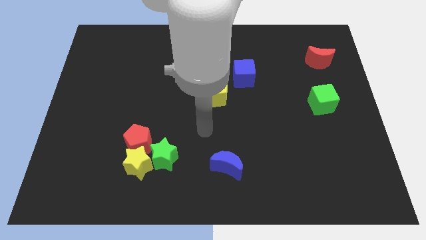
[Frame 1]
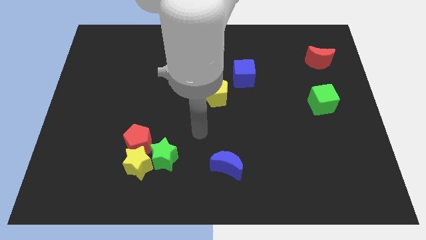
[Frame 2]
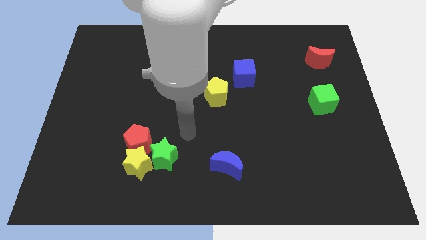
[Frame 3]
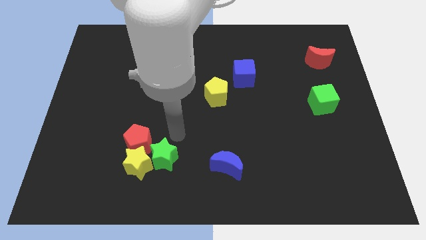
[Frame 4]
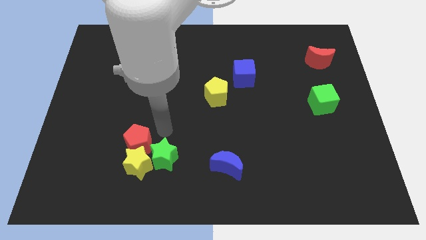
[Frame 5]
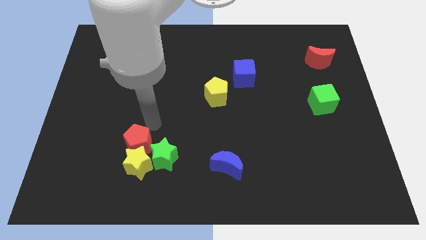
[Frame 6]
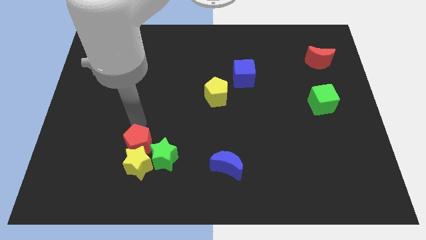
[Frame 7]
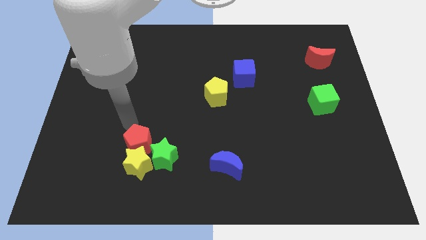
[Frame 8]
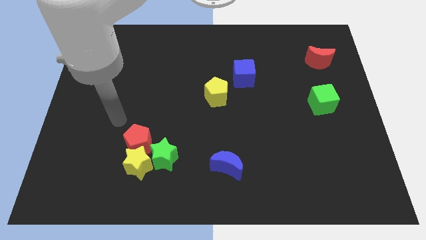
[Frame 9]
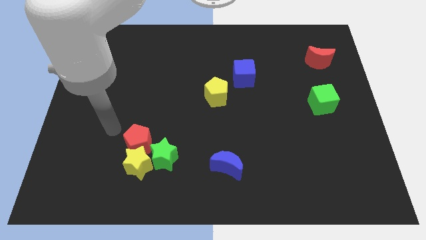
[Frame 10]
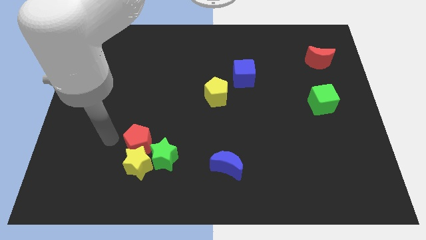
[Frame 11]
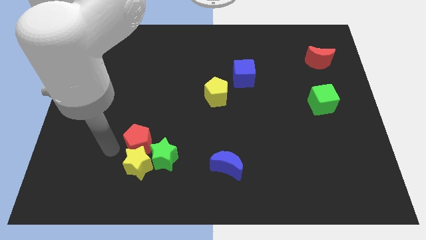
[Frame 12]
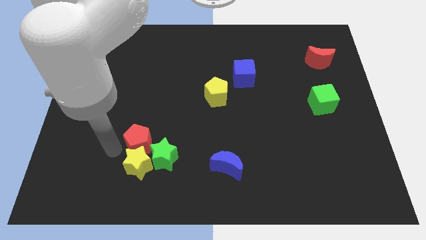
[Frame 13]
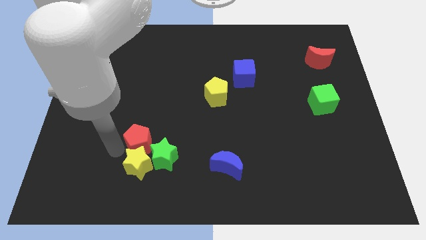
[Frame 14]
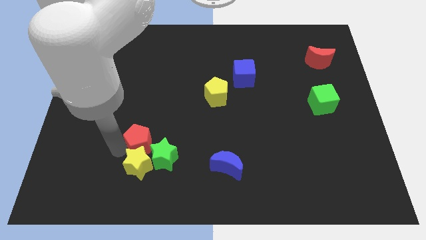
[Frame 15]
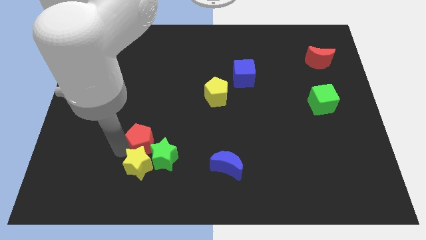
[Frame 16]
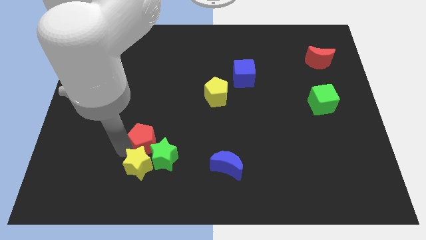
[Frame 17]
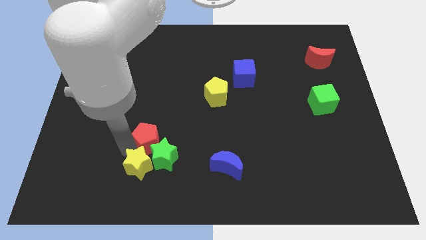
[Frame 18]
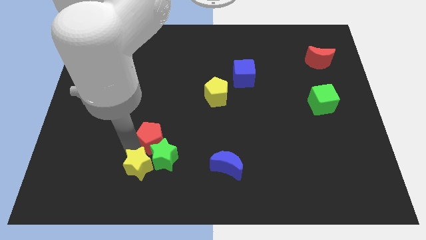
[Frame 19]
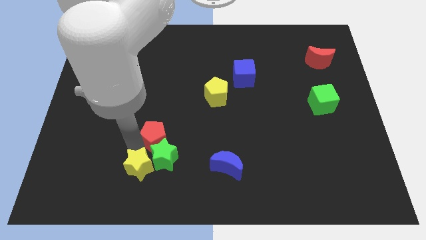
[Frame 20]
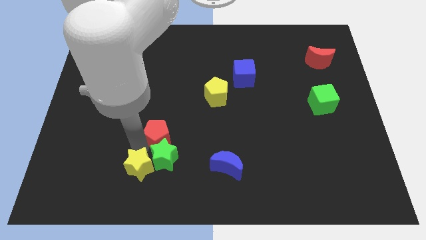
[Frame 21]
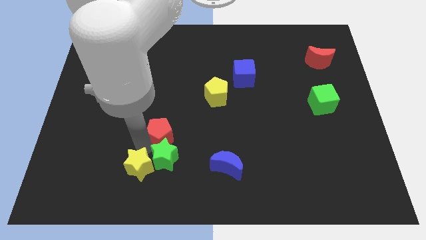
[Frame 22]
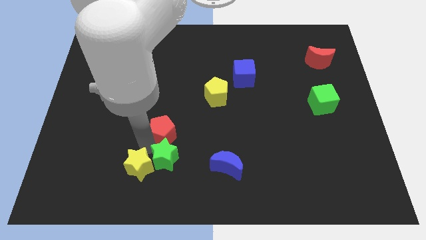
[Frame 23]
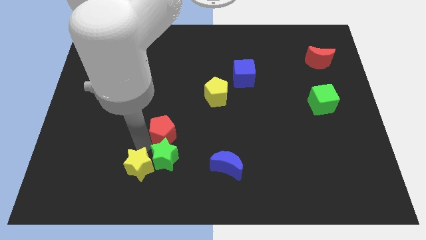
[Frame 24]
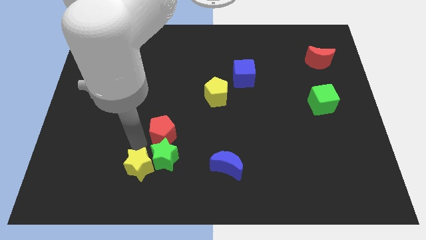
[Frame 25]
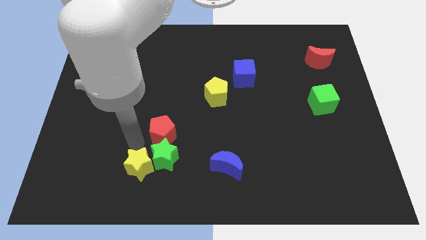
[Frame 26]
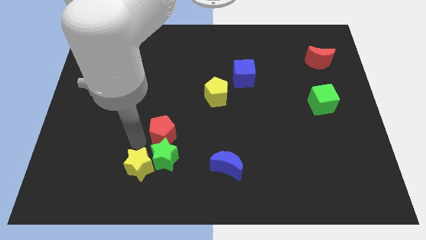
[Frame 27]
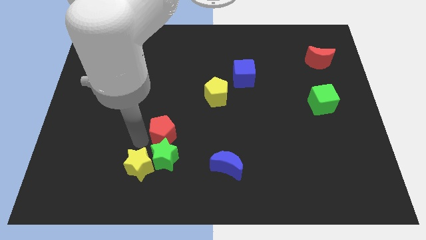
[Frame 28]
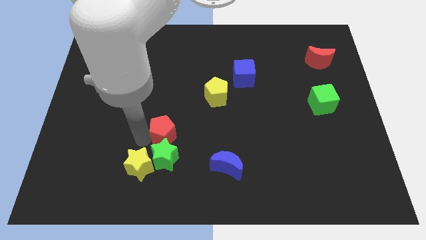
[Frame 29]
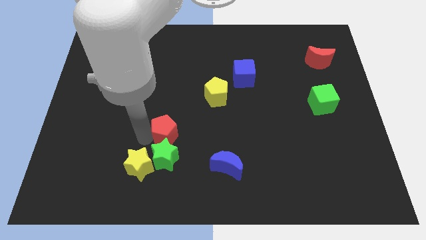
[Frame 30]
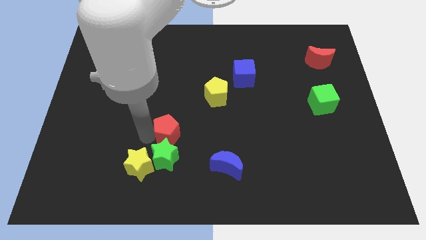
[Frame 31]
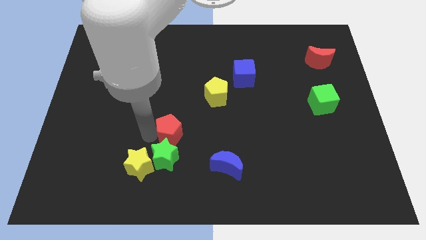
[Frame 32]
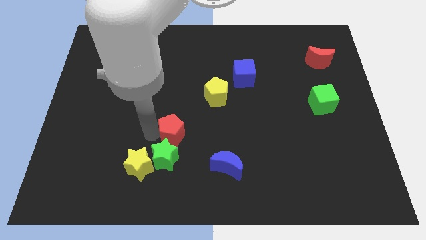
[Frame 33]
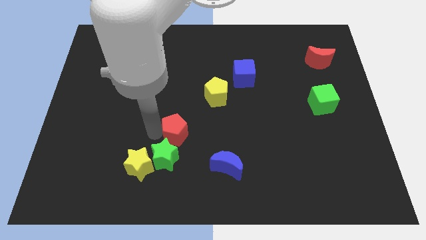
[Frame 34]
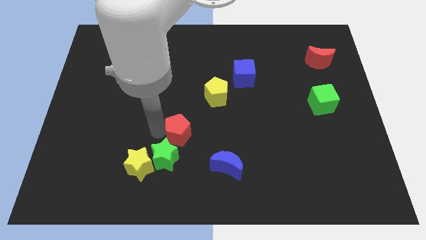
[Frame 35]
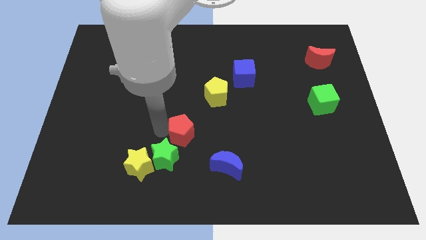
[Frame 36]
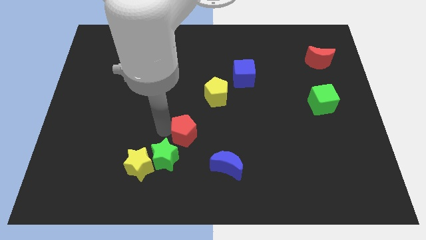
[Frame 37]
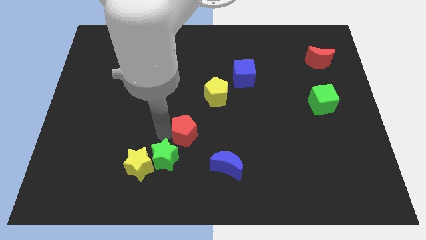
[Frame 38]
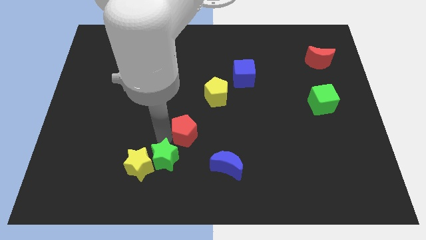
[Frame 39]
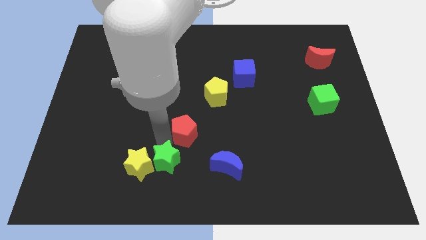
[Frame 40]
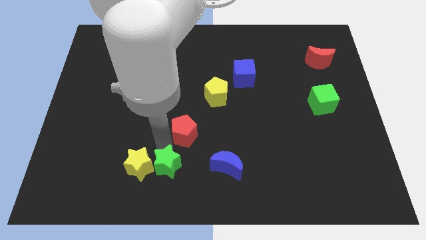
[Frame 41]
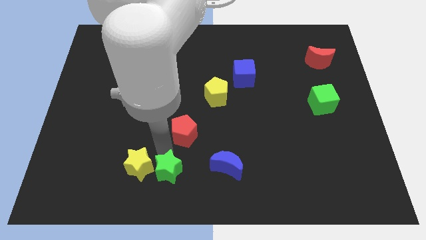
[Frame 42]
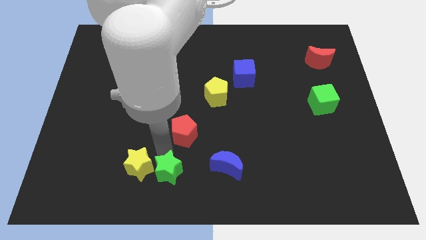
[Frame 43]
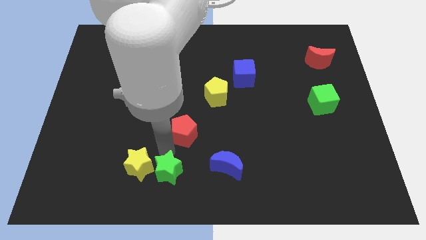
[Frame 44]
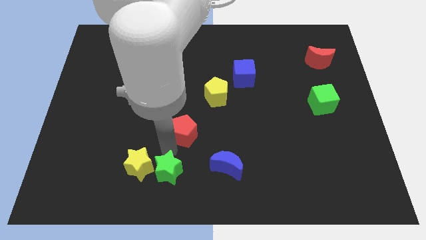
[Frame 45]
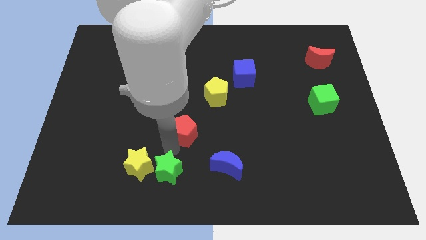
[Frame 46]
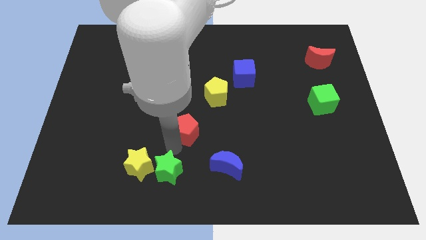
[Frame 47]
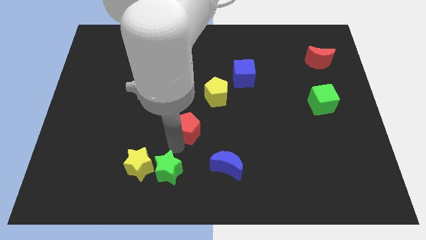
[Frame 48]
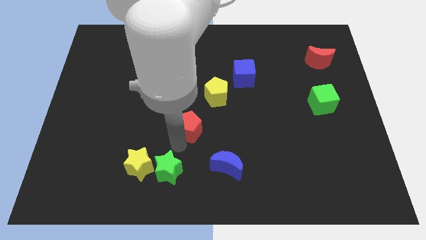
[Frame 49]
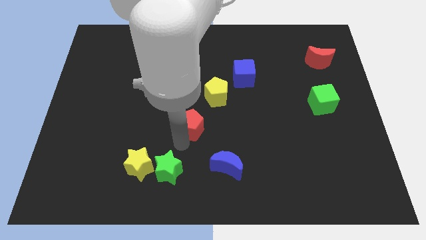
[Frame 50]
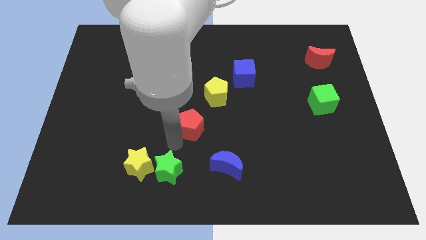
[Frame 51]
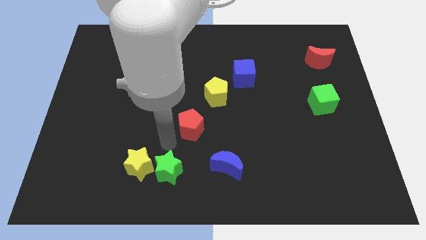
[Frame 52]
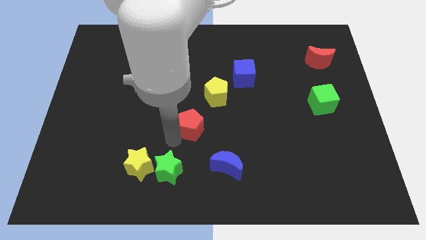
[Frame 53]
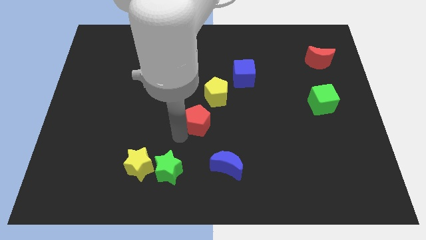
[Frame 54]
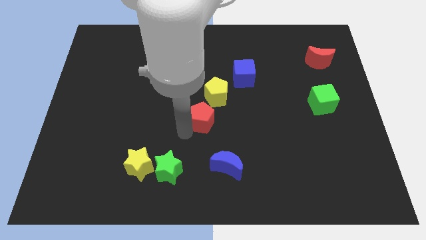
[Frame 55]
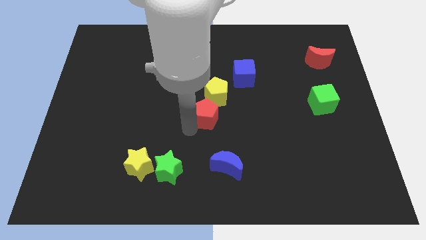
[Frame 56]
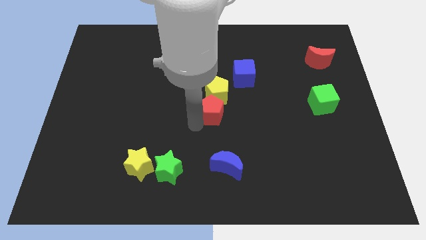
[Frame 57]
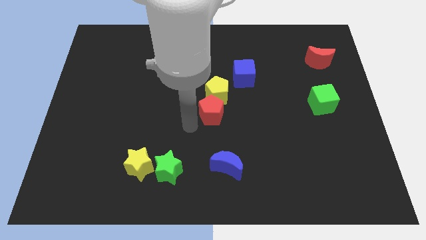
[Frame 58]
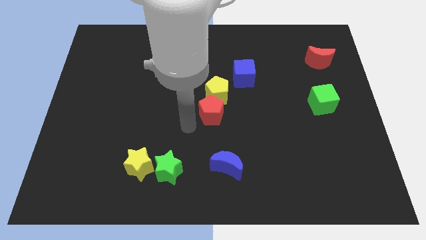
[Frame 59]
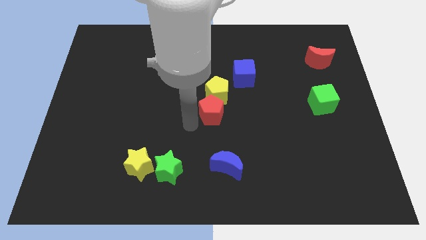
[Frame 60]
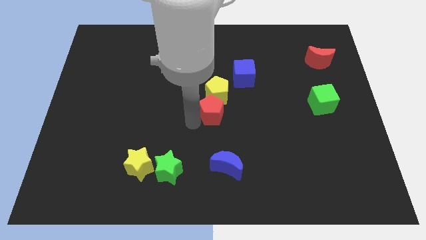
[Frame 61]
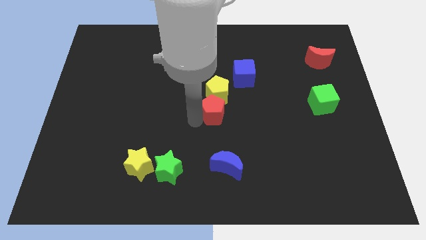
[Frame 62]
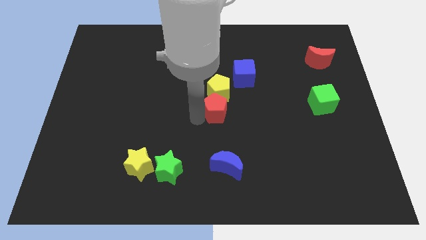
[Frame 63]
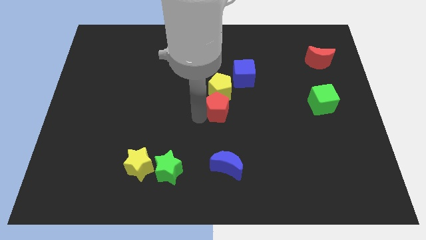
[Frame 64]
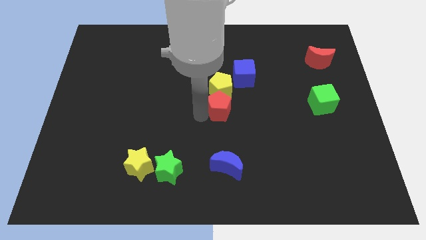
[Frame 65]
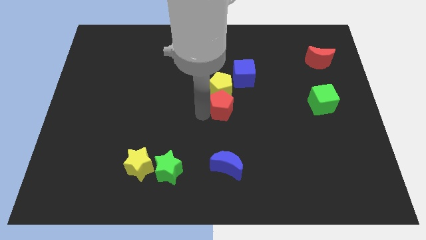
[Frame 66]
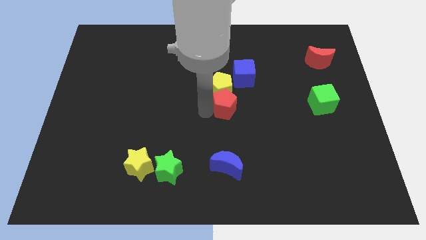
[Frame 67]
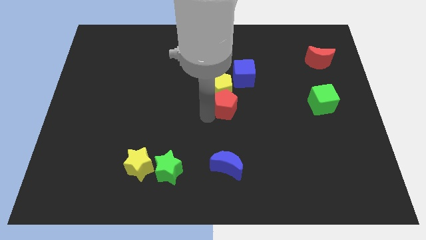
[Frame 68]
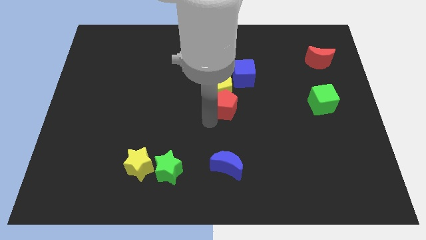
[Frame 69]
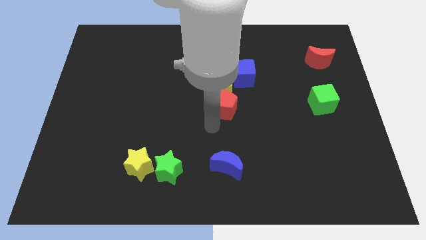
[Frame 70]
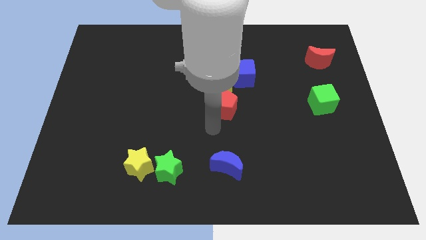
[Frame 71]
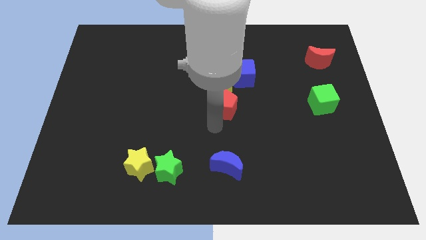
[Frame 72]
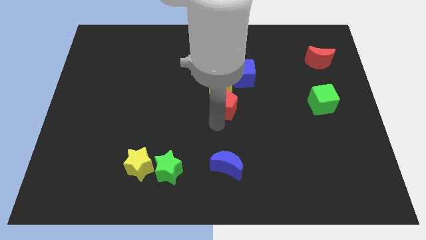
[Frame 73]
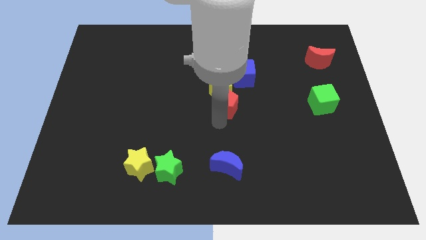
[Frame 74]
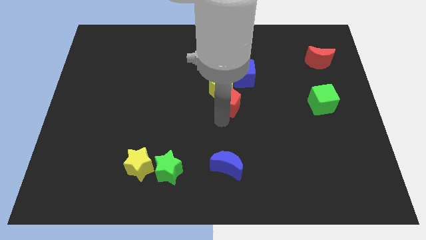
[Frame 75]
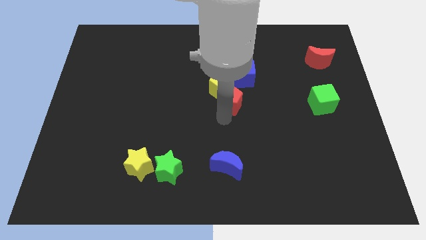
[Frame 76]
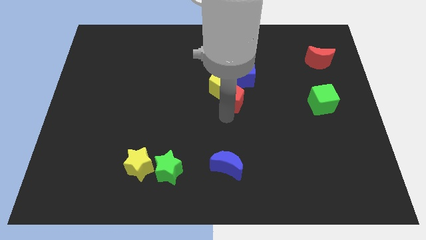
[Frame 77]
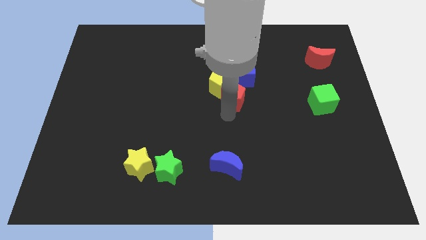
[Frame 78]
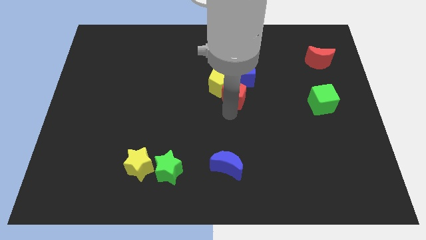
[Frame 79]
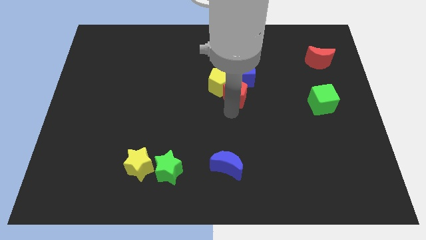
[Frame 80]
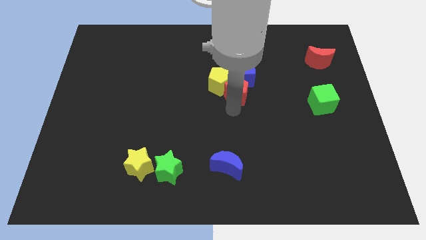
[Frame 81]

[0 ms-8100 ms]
put the red pentagon next to the blue cube
